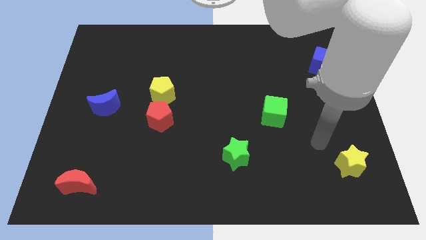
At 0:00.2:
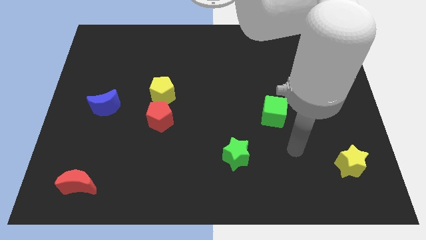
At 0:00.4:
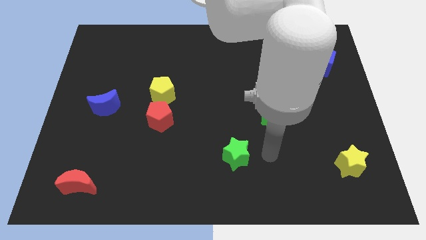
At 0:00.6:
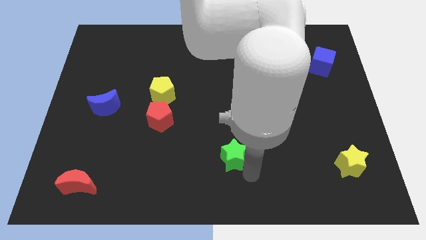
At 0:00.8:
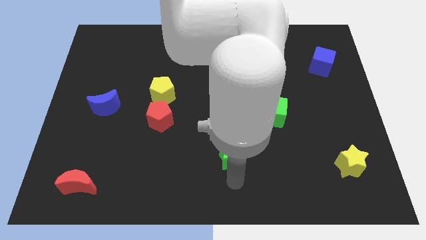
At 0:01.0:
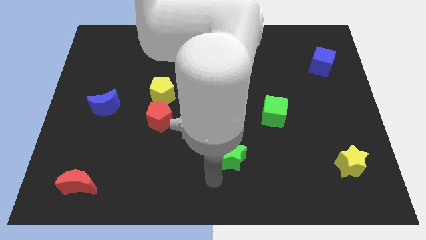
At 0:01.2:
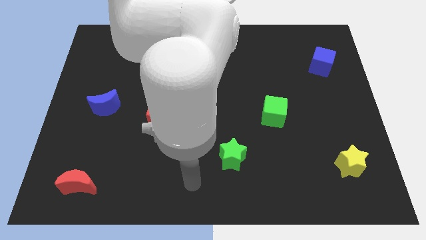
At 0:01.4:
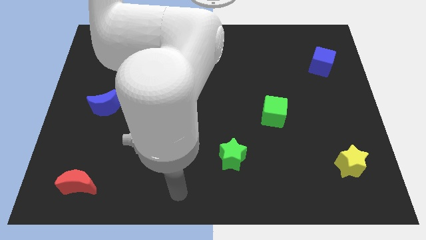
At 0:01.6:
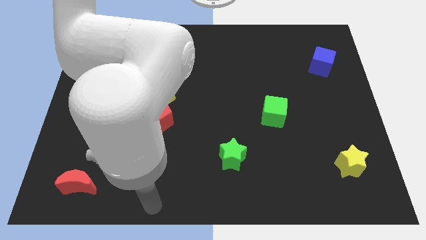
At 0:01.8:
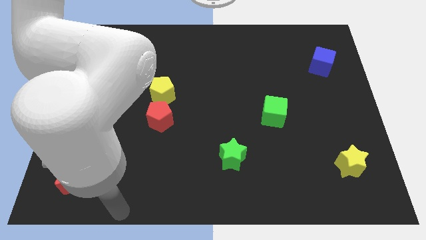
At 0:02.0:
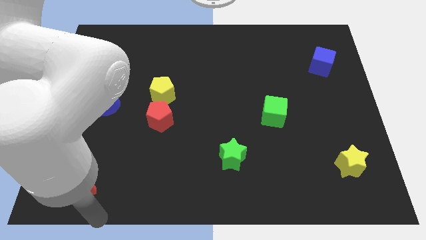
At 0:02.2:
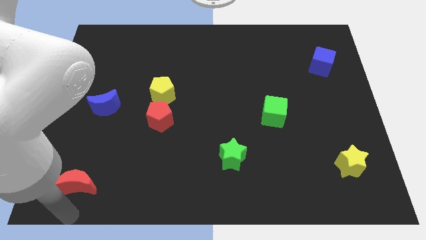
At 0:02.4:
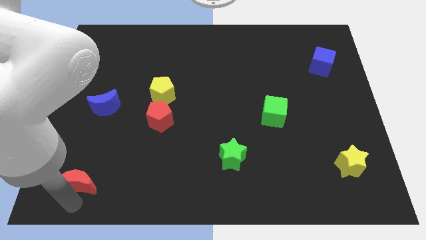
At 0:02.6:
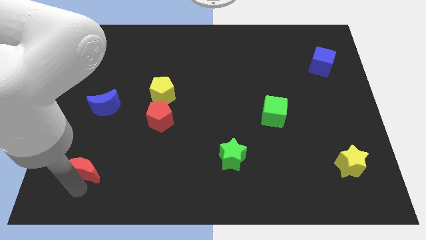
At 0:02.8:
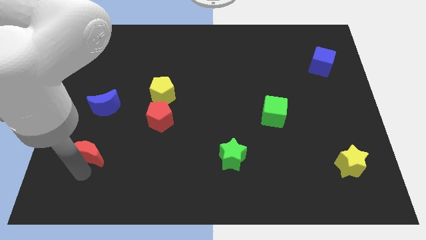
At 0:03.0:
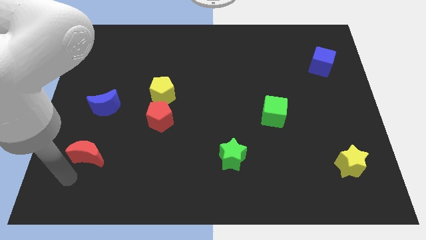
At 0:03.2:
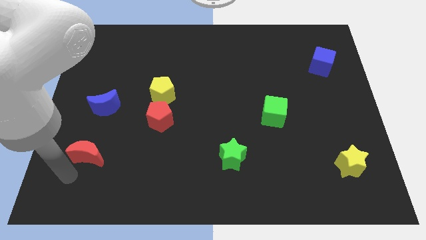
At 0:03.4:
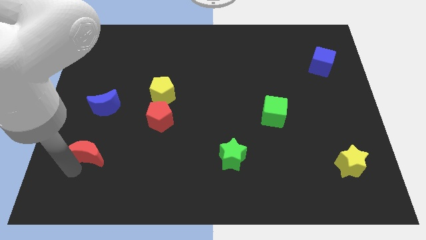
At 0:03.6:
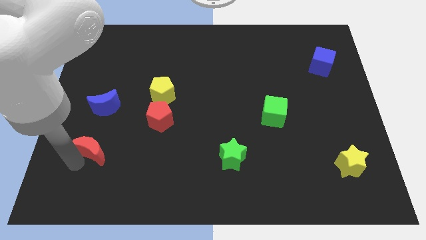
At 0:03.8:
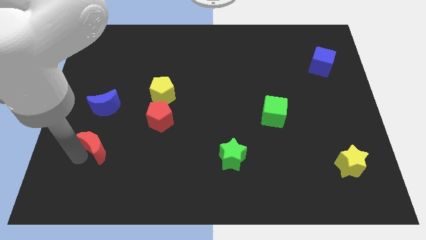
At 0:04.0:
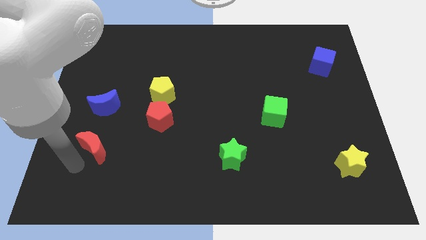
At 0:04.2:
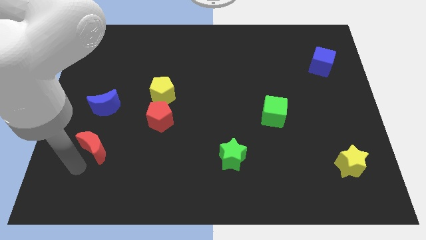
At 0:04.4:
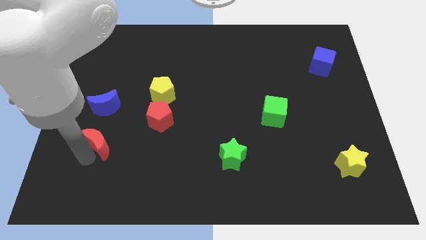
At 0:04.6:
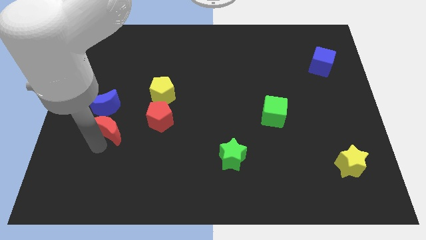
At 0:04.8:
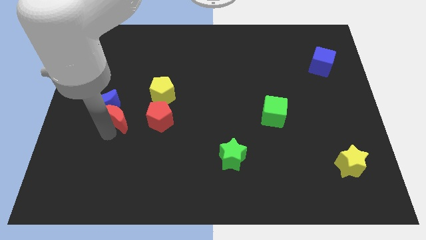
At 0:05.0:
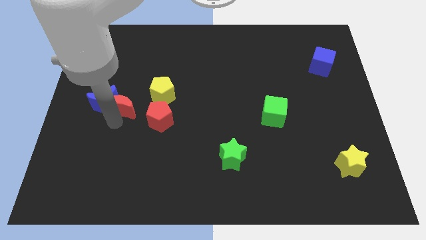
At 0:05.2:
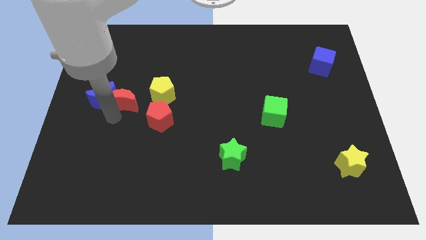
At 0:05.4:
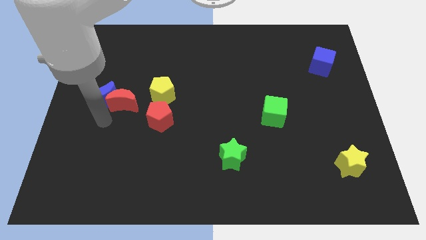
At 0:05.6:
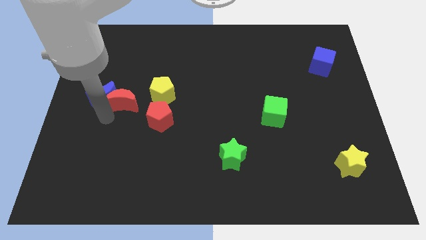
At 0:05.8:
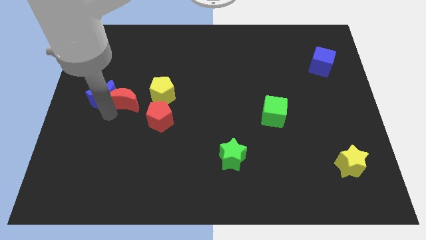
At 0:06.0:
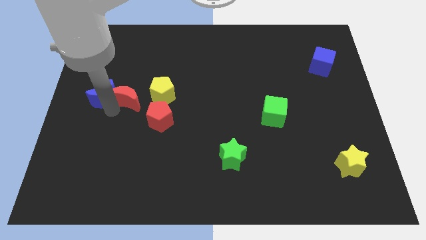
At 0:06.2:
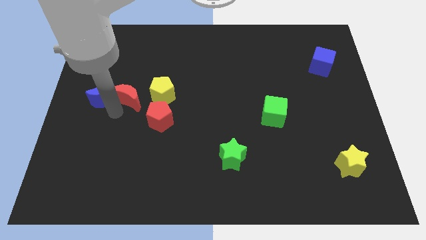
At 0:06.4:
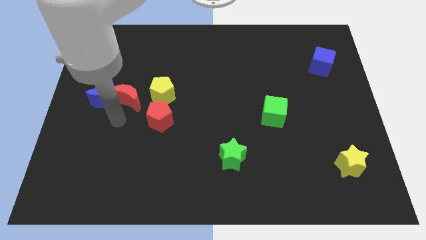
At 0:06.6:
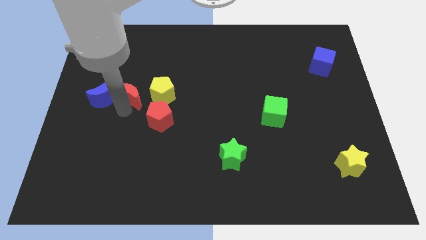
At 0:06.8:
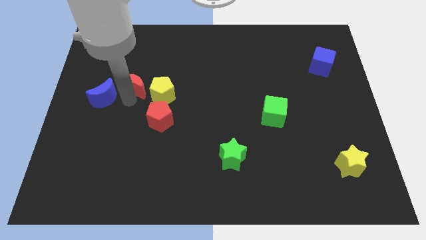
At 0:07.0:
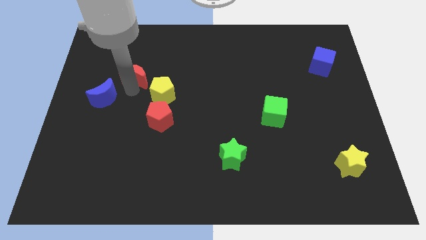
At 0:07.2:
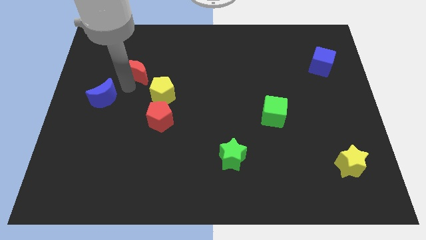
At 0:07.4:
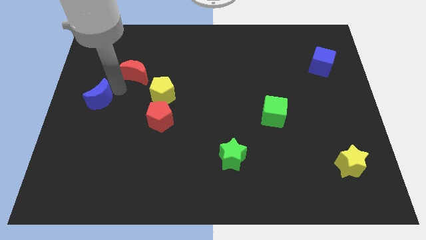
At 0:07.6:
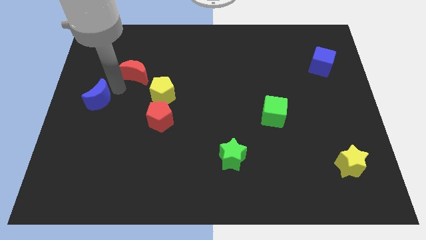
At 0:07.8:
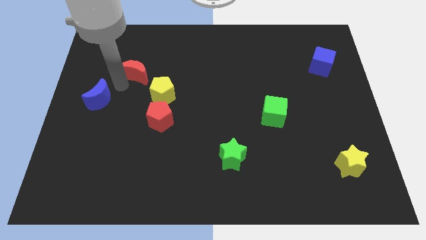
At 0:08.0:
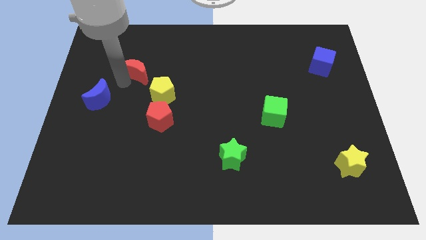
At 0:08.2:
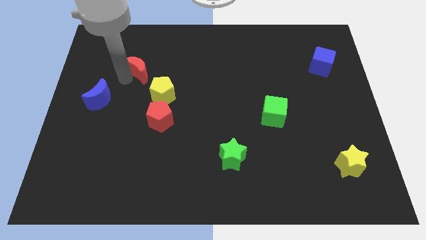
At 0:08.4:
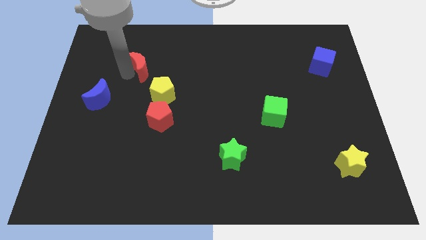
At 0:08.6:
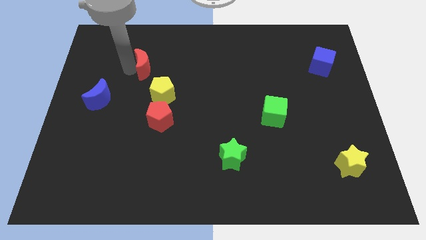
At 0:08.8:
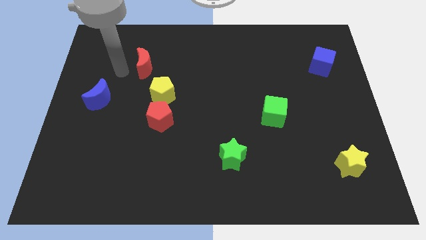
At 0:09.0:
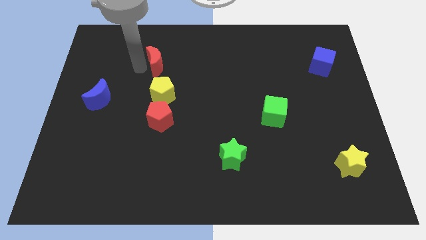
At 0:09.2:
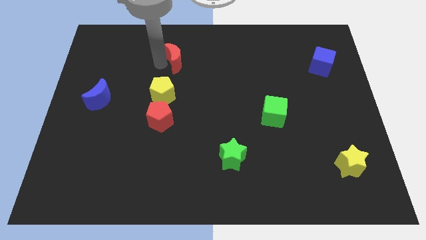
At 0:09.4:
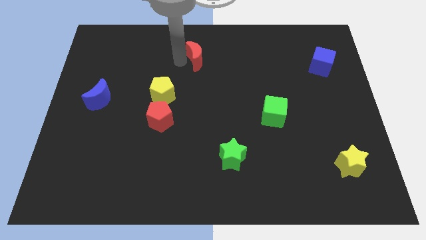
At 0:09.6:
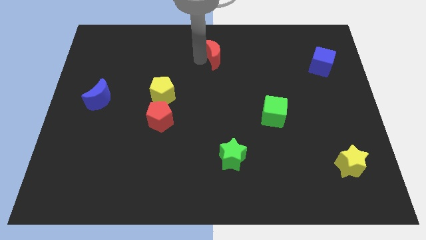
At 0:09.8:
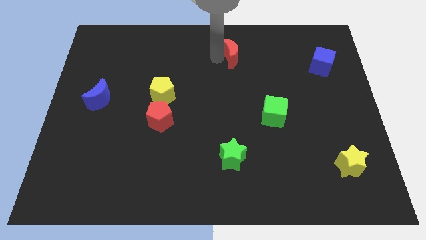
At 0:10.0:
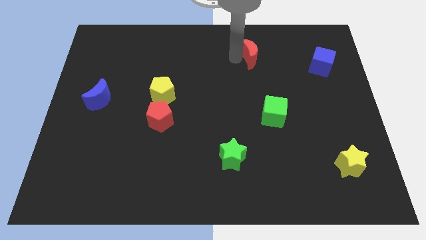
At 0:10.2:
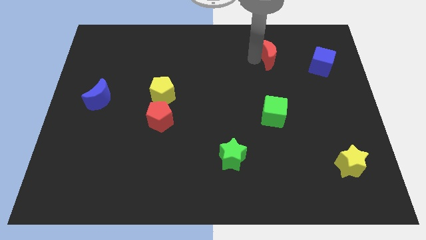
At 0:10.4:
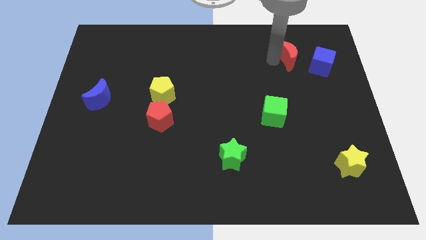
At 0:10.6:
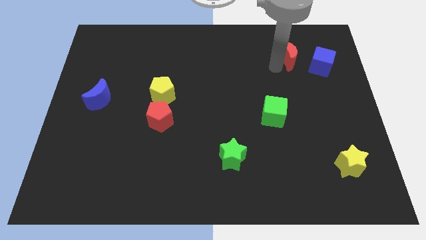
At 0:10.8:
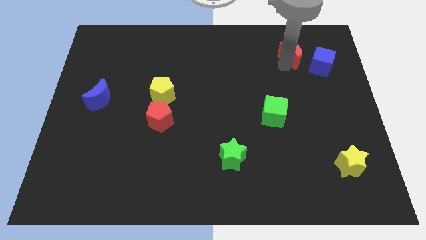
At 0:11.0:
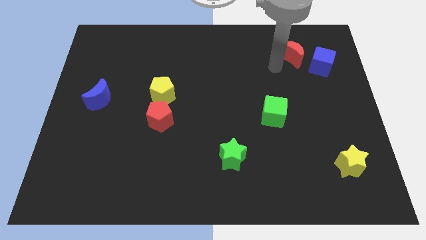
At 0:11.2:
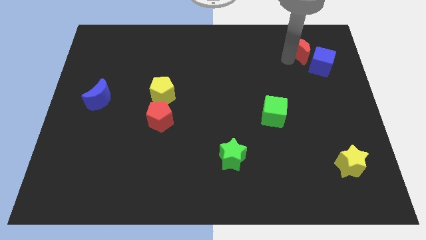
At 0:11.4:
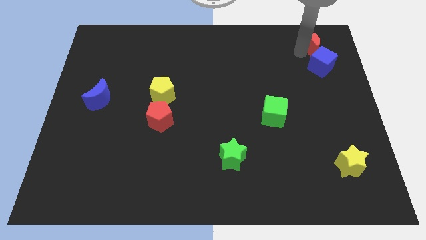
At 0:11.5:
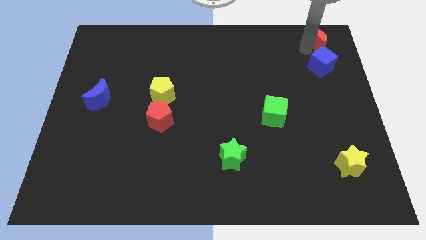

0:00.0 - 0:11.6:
move the red moon to the top right corner

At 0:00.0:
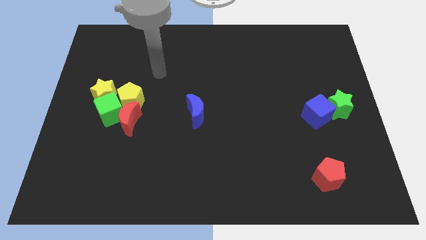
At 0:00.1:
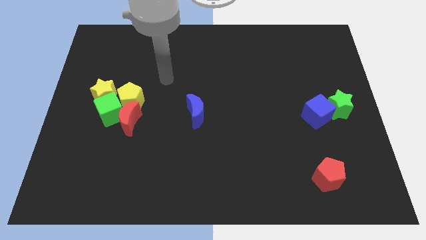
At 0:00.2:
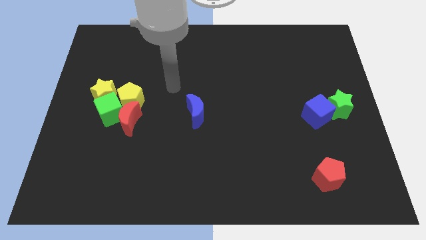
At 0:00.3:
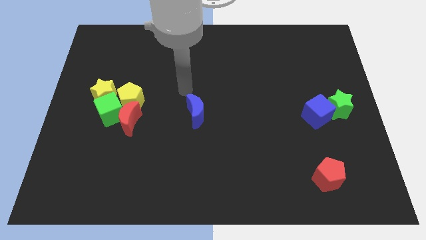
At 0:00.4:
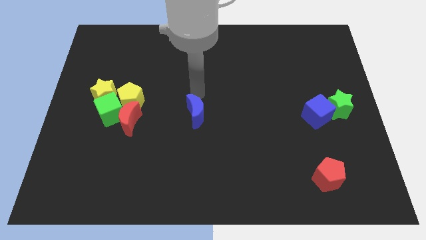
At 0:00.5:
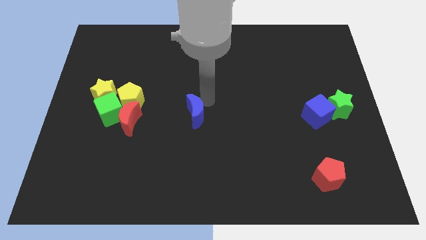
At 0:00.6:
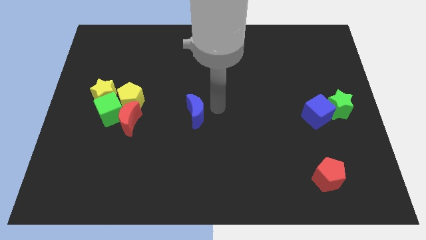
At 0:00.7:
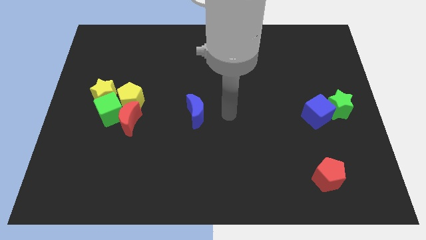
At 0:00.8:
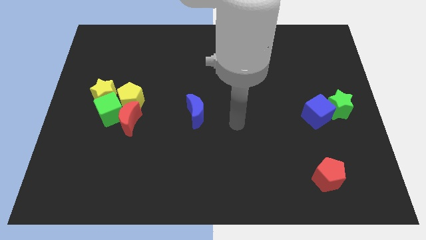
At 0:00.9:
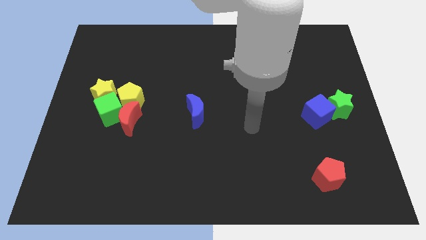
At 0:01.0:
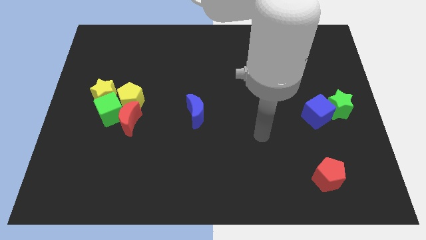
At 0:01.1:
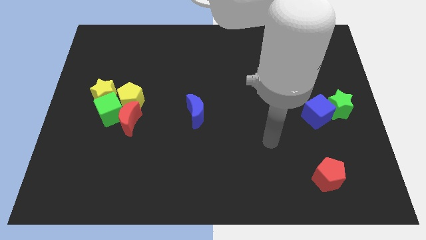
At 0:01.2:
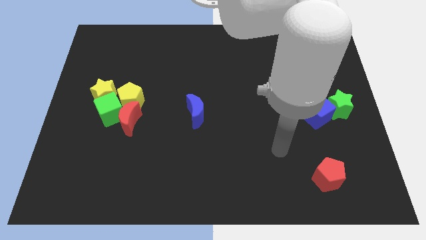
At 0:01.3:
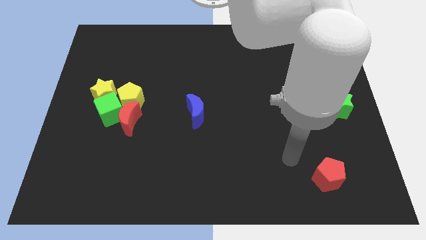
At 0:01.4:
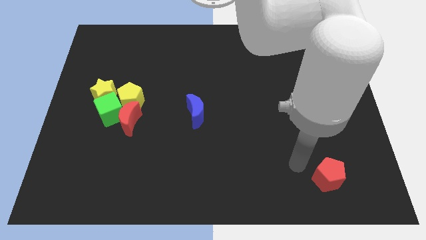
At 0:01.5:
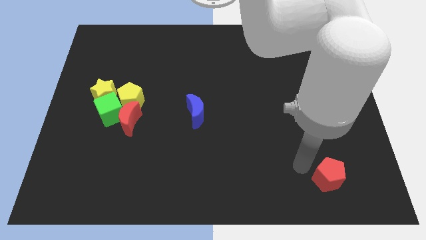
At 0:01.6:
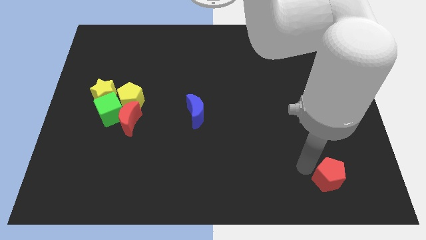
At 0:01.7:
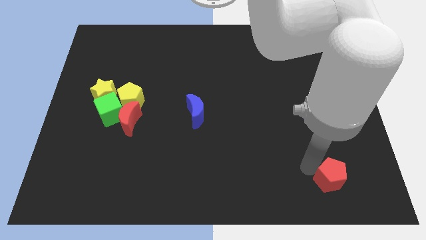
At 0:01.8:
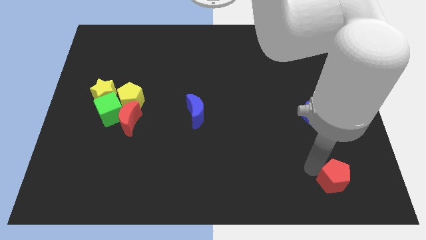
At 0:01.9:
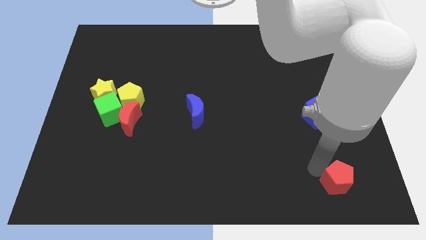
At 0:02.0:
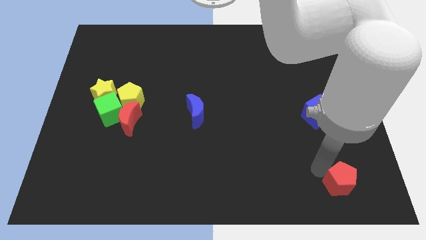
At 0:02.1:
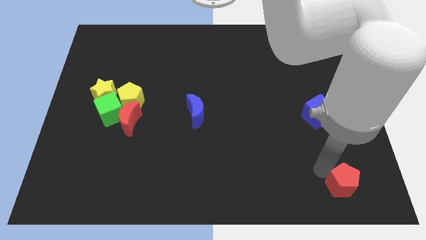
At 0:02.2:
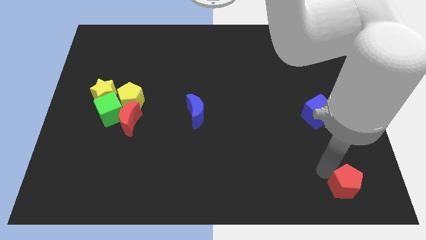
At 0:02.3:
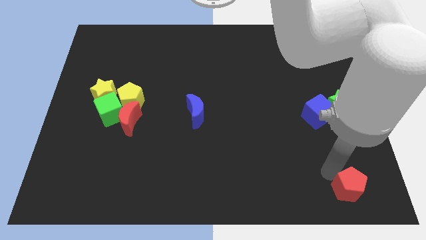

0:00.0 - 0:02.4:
put the red pentagon to the bottom right
